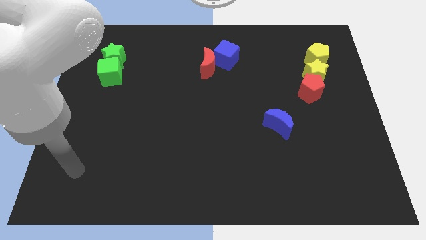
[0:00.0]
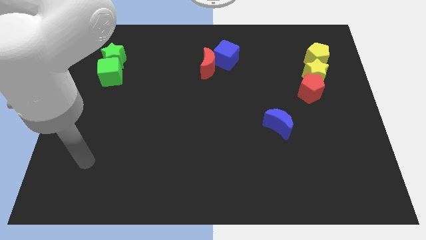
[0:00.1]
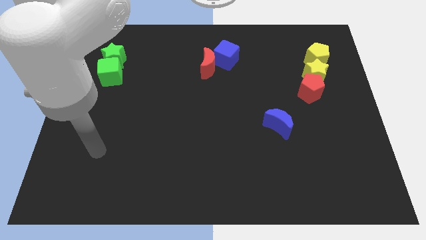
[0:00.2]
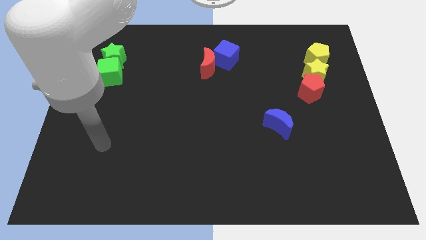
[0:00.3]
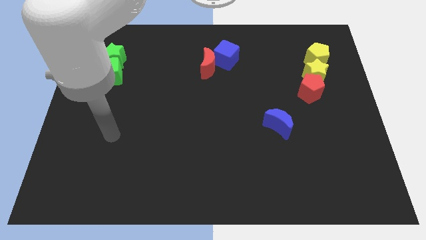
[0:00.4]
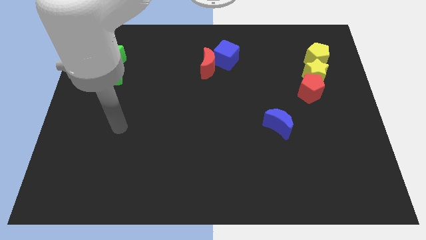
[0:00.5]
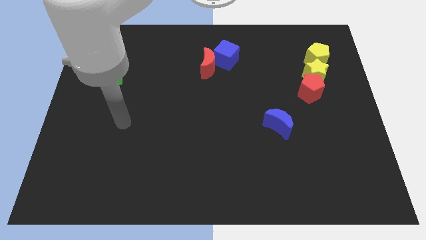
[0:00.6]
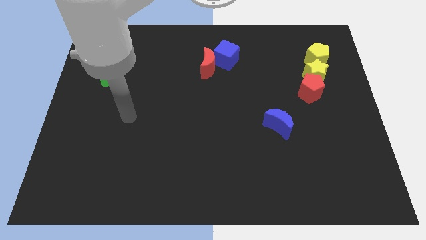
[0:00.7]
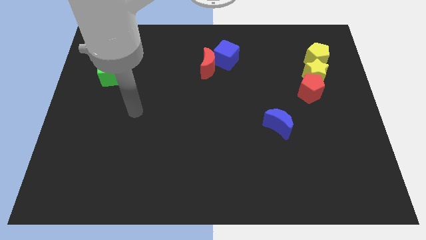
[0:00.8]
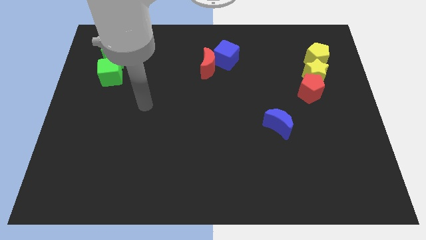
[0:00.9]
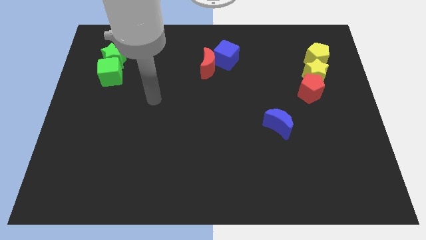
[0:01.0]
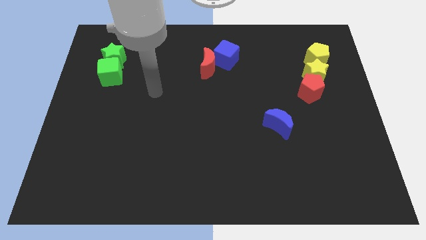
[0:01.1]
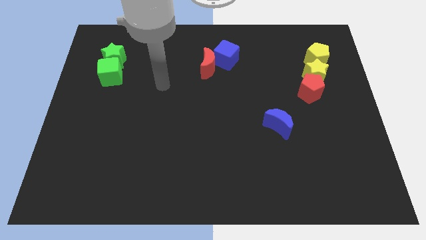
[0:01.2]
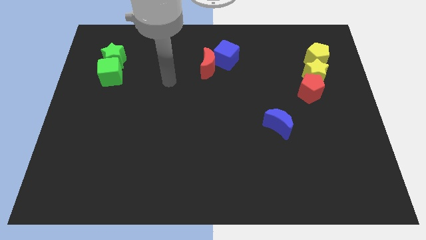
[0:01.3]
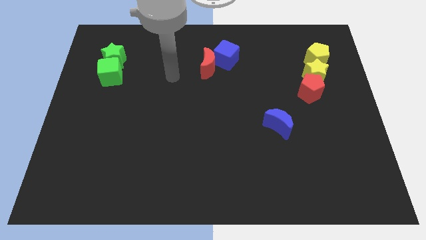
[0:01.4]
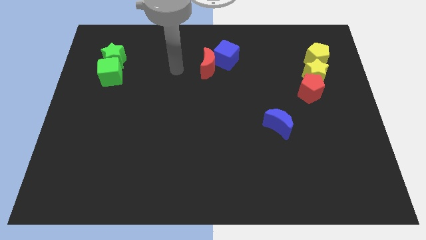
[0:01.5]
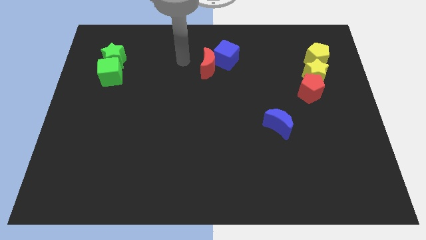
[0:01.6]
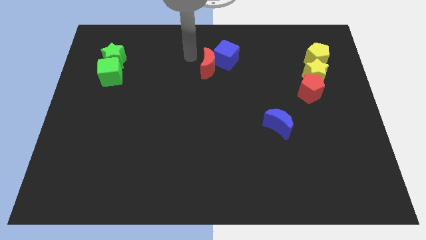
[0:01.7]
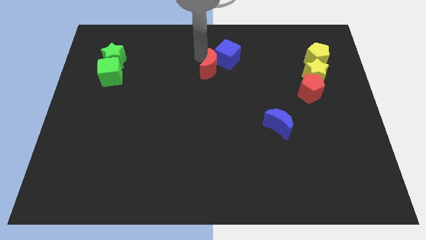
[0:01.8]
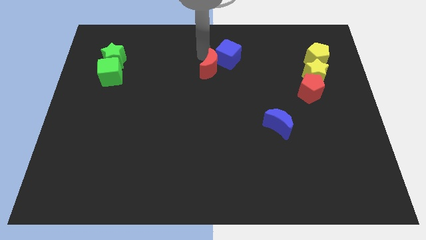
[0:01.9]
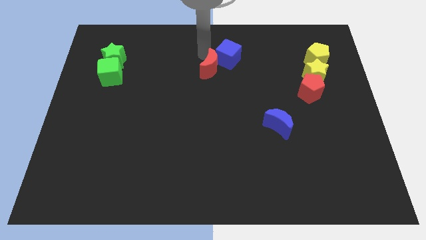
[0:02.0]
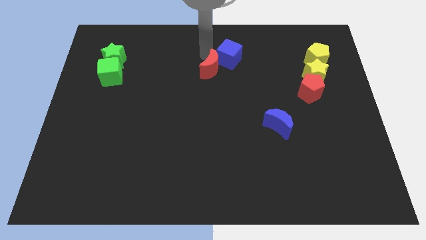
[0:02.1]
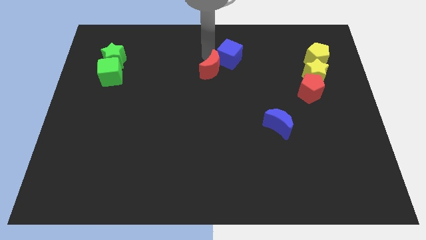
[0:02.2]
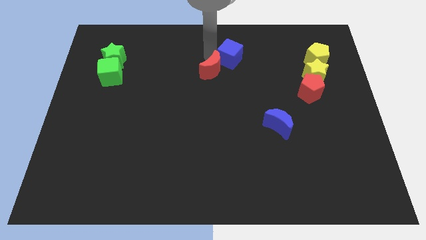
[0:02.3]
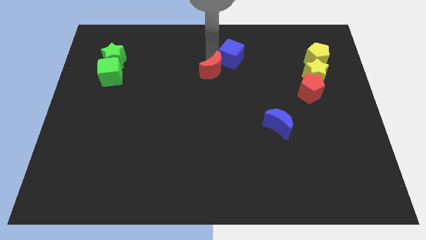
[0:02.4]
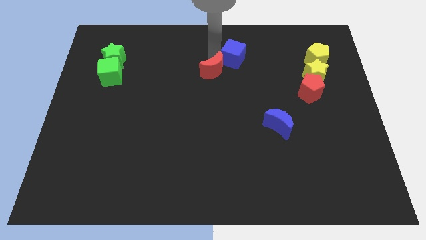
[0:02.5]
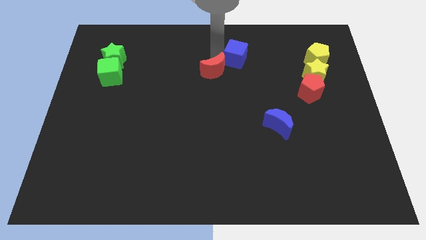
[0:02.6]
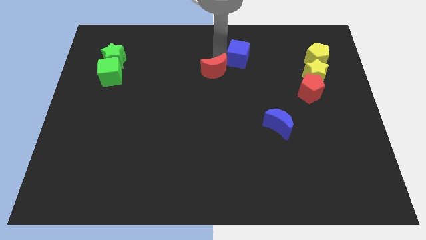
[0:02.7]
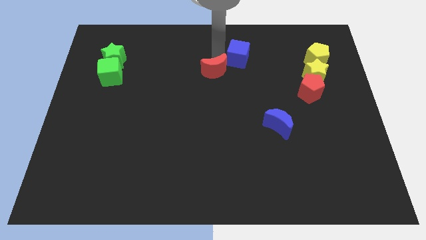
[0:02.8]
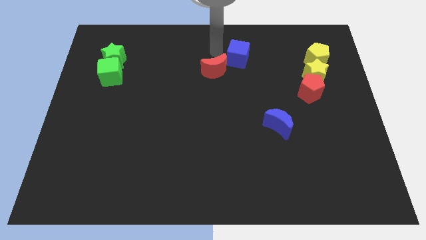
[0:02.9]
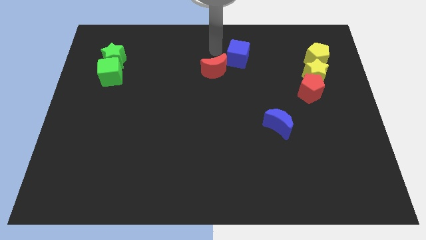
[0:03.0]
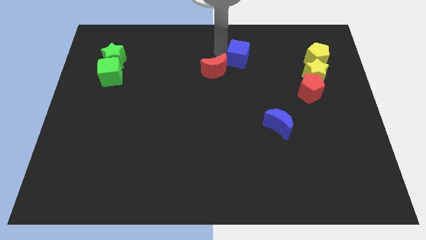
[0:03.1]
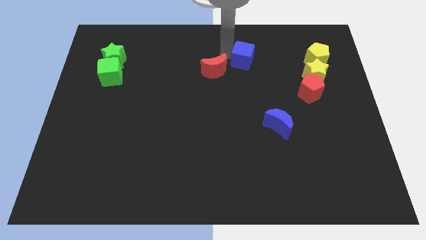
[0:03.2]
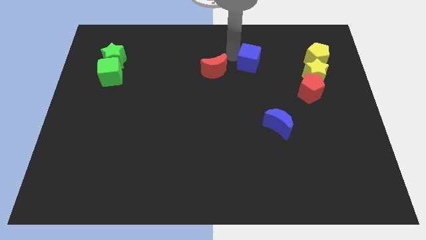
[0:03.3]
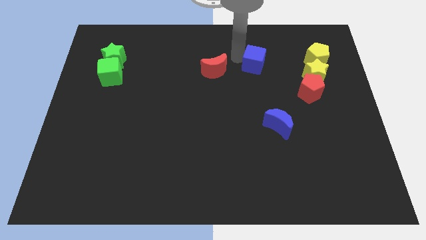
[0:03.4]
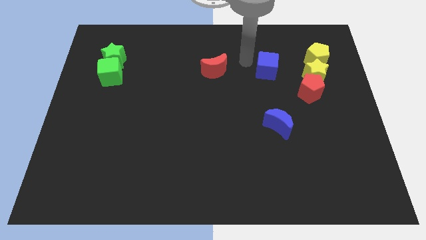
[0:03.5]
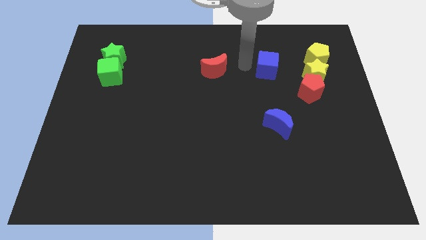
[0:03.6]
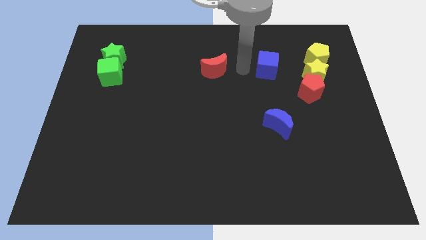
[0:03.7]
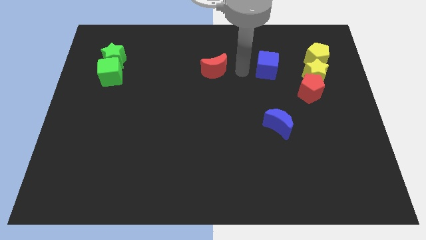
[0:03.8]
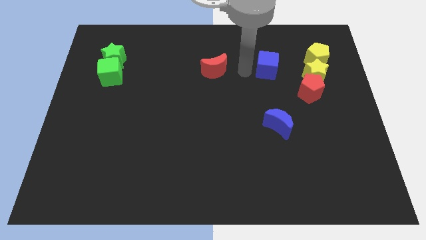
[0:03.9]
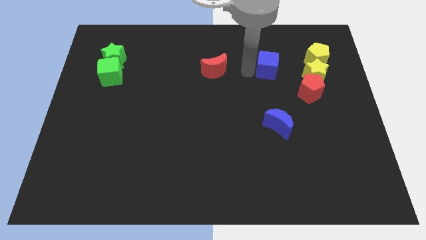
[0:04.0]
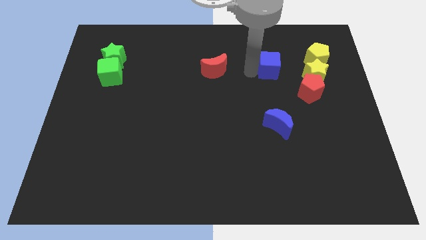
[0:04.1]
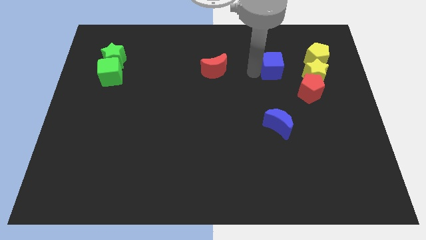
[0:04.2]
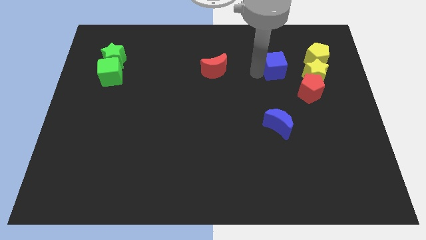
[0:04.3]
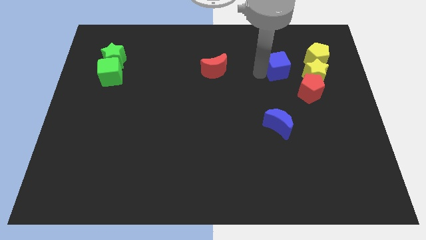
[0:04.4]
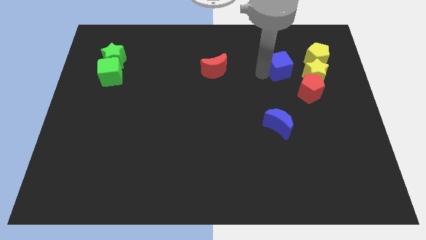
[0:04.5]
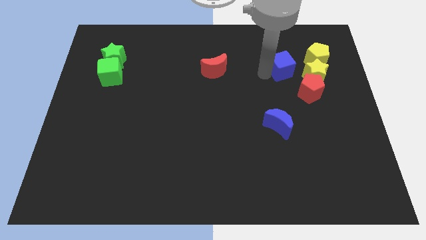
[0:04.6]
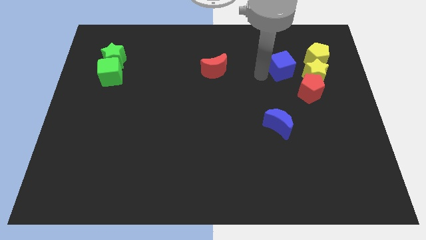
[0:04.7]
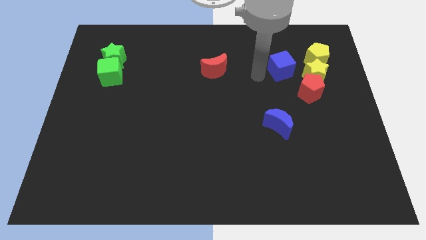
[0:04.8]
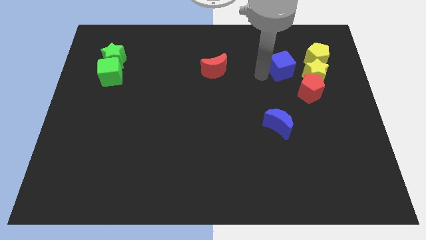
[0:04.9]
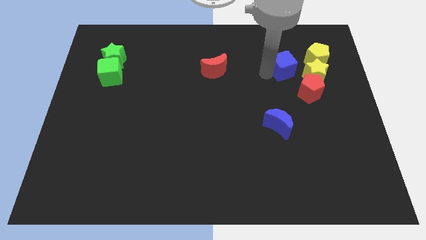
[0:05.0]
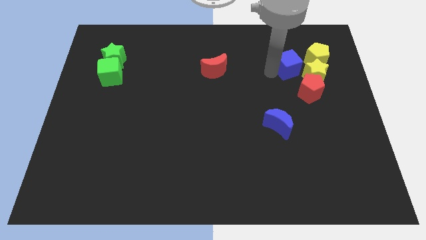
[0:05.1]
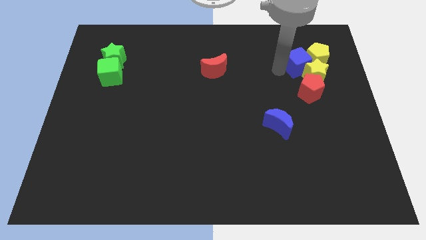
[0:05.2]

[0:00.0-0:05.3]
push the blue cube to the yellow pentagon

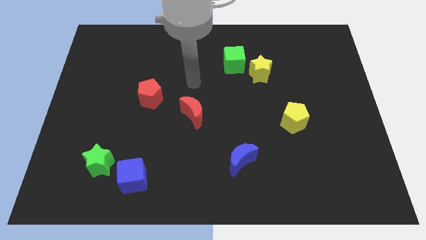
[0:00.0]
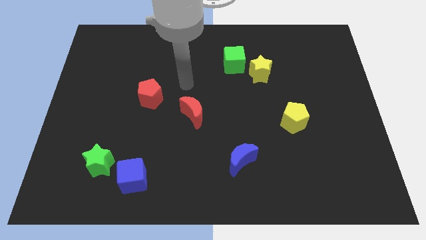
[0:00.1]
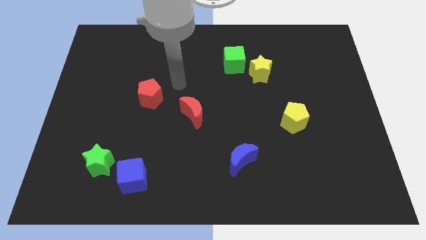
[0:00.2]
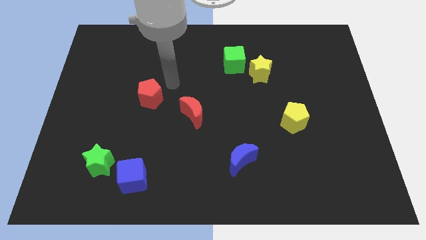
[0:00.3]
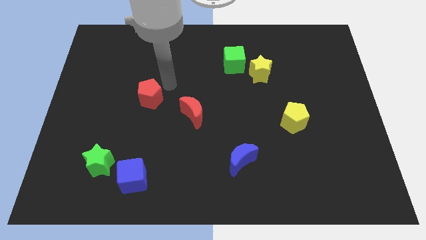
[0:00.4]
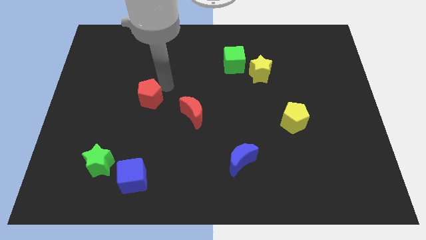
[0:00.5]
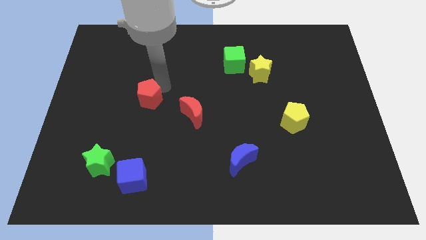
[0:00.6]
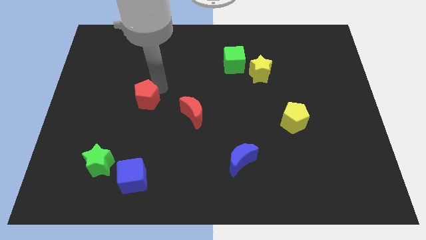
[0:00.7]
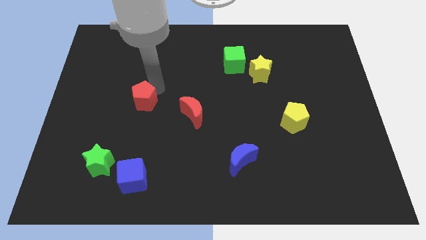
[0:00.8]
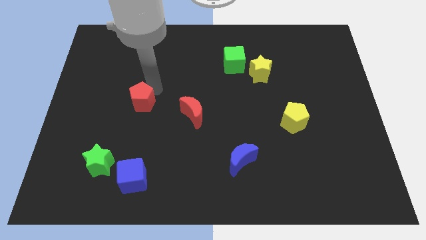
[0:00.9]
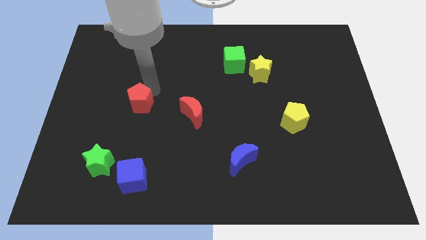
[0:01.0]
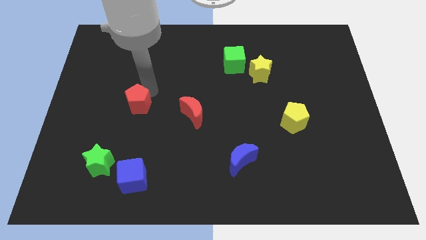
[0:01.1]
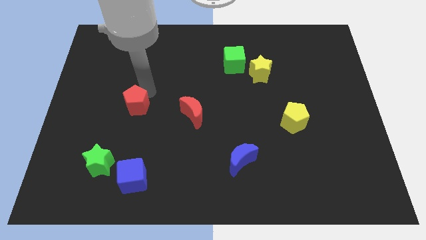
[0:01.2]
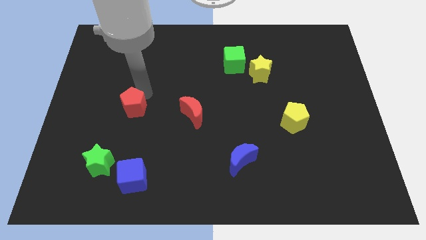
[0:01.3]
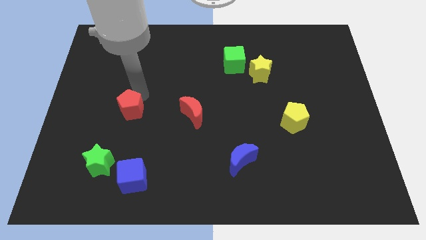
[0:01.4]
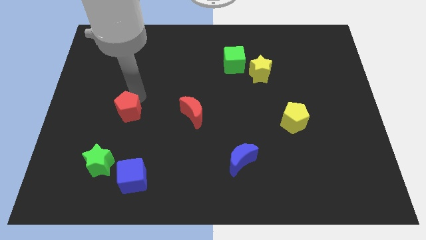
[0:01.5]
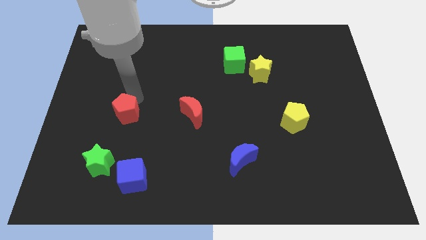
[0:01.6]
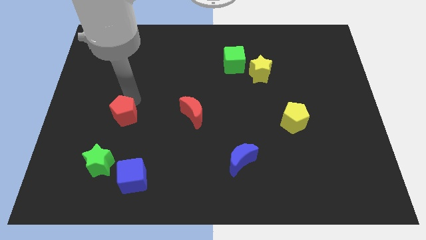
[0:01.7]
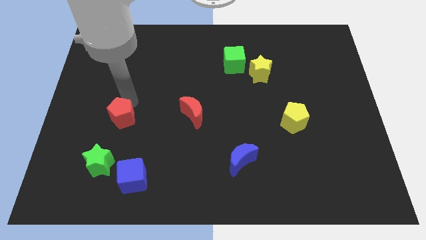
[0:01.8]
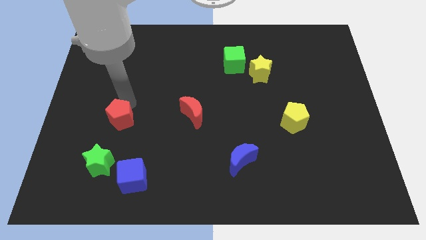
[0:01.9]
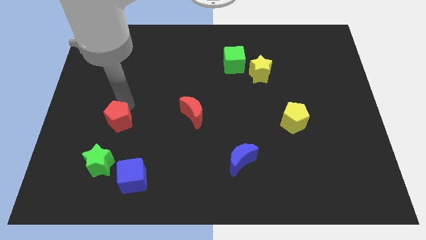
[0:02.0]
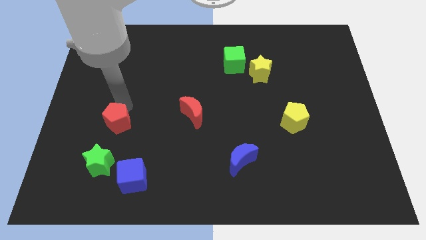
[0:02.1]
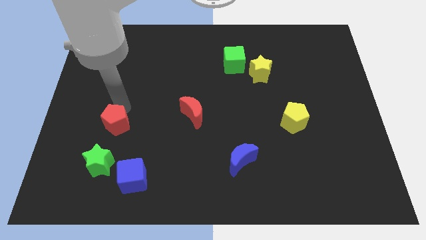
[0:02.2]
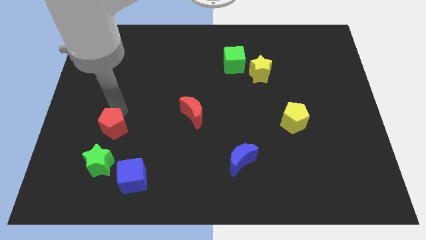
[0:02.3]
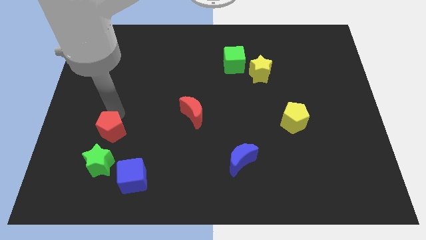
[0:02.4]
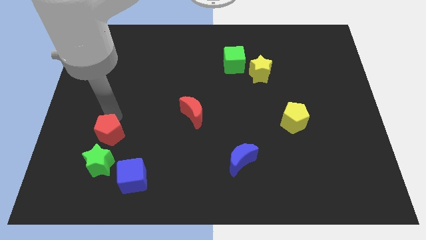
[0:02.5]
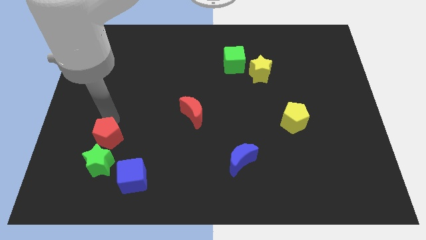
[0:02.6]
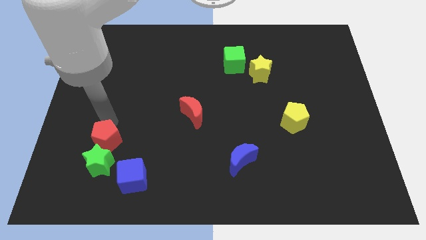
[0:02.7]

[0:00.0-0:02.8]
push the red pentagon towards the green star
